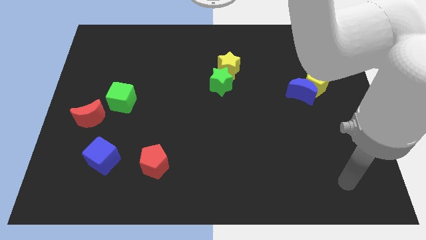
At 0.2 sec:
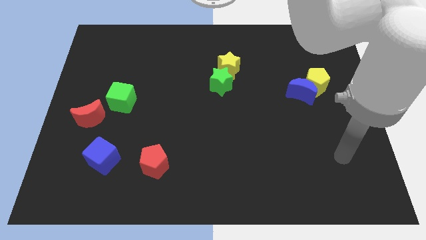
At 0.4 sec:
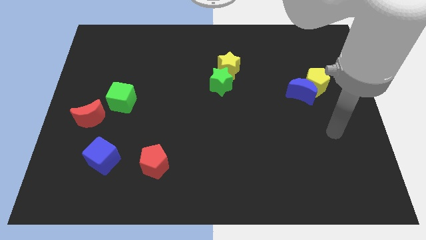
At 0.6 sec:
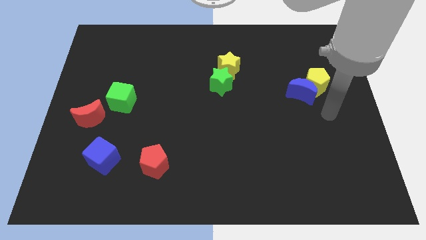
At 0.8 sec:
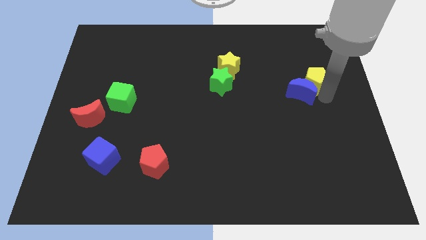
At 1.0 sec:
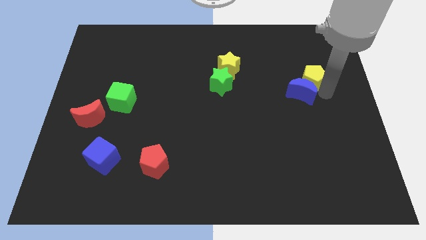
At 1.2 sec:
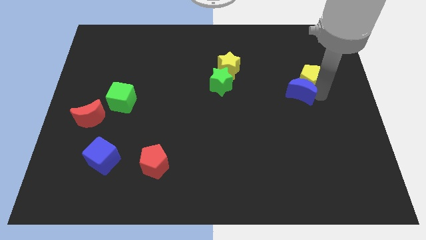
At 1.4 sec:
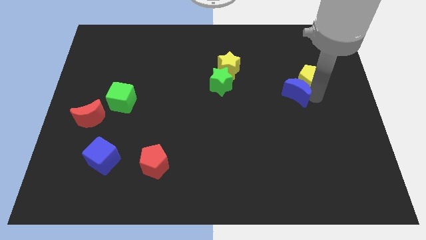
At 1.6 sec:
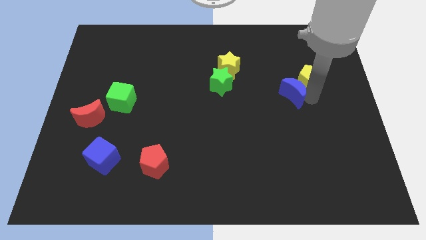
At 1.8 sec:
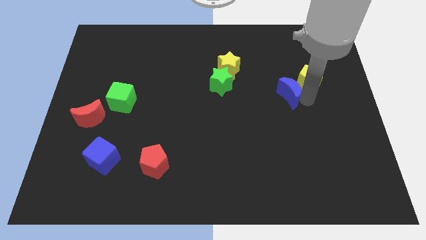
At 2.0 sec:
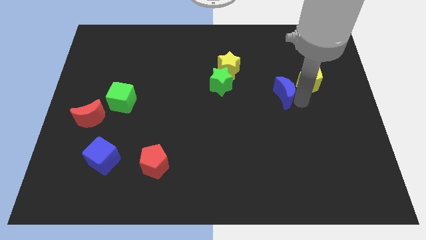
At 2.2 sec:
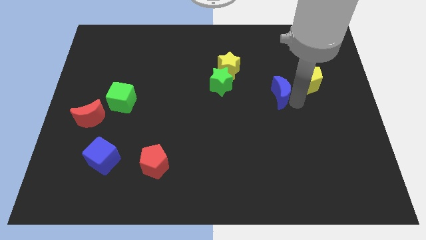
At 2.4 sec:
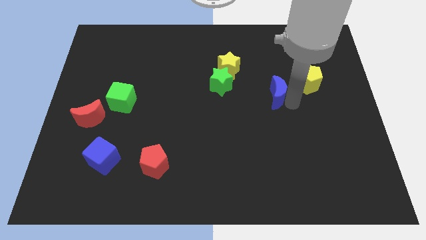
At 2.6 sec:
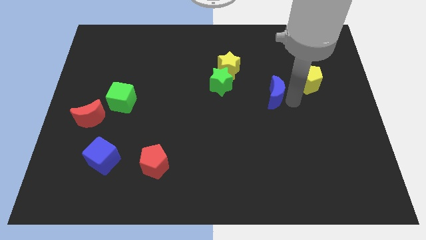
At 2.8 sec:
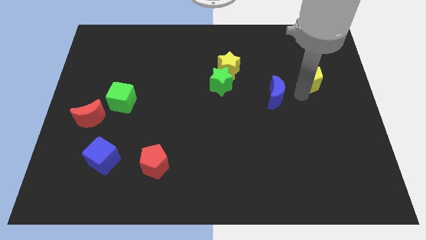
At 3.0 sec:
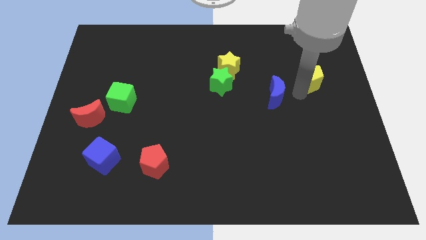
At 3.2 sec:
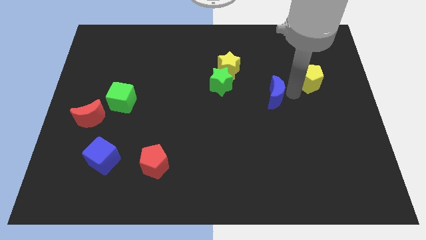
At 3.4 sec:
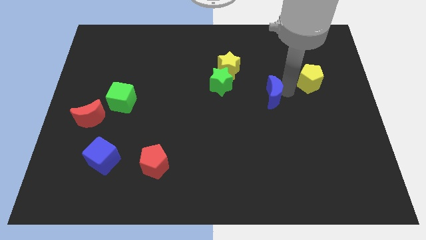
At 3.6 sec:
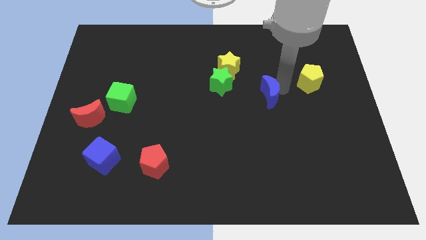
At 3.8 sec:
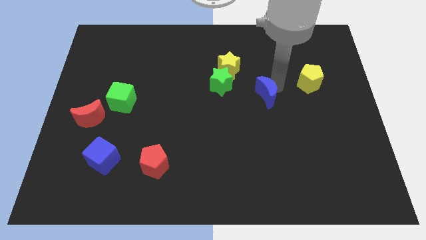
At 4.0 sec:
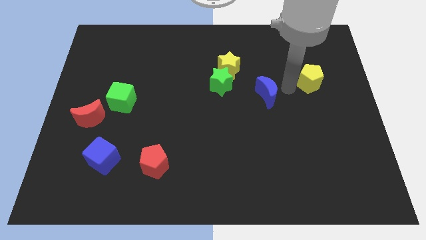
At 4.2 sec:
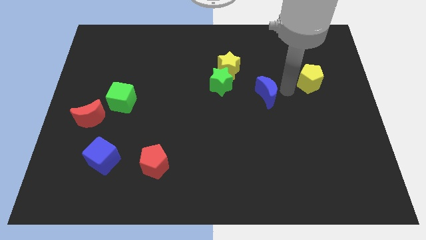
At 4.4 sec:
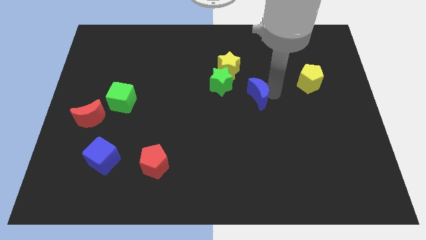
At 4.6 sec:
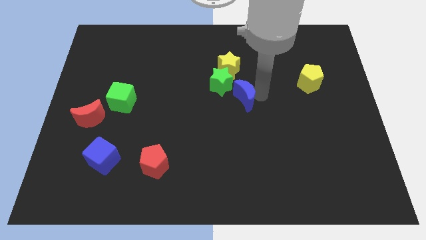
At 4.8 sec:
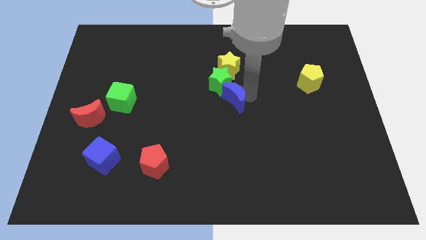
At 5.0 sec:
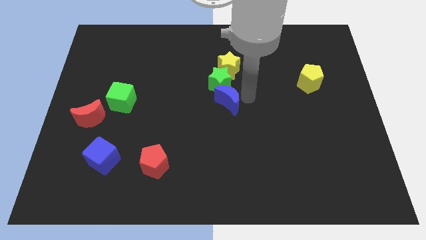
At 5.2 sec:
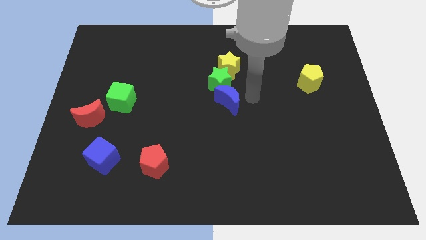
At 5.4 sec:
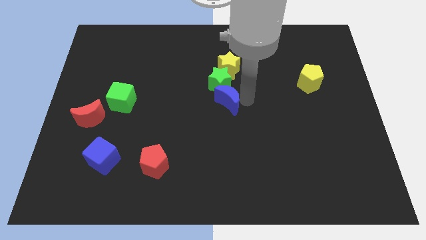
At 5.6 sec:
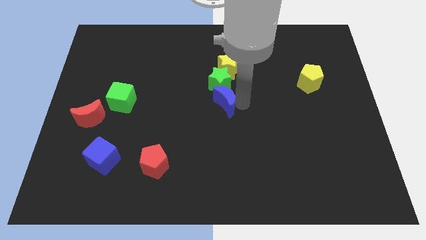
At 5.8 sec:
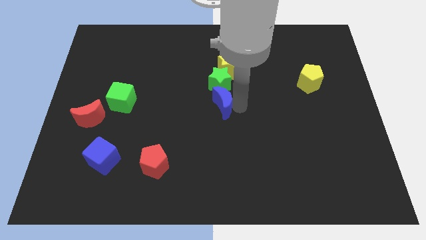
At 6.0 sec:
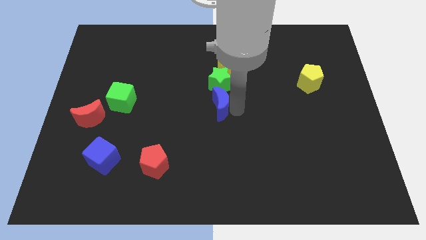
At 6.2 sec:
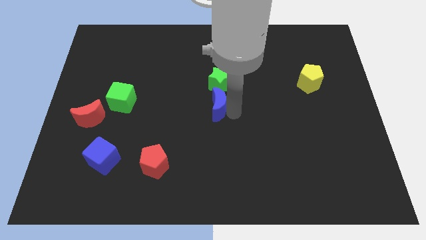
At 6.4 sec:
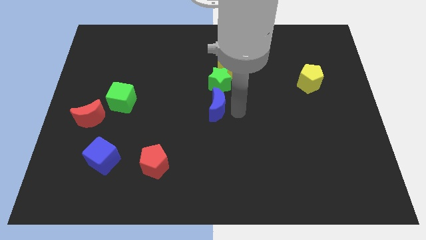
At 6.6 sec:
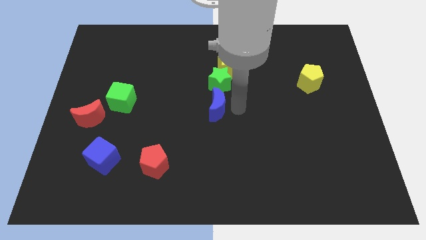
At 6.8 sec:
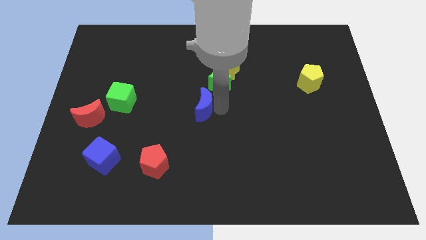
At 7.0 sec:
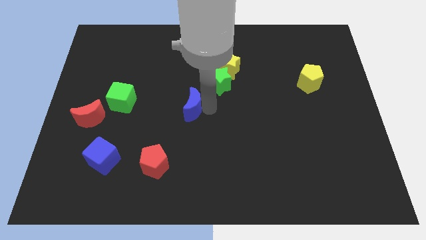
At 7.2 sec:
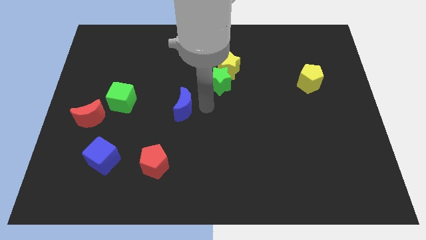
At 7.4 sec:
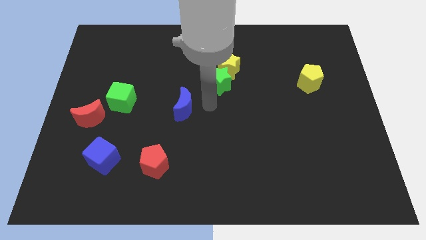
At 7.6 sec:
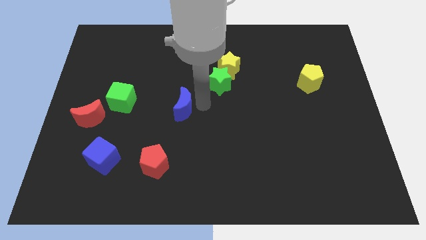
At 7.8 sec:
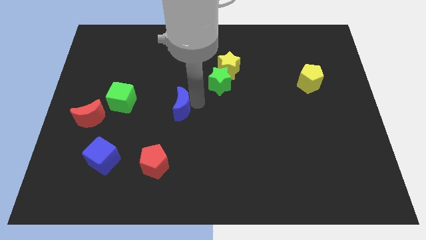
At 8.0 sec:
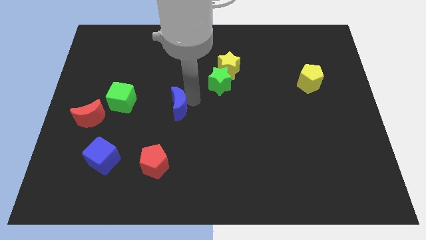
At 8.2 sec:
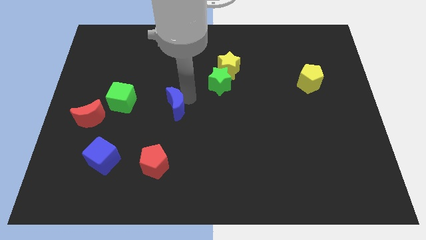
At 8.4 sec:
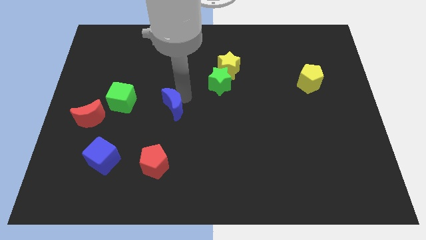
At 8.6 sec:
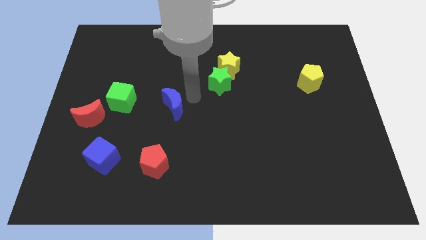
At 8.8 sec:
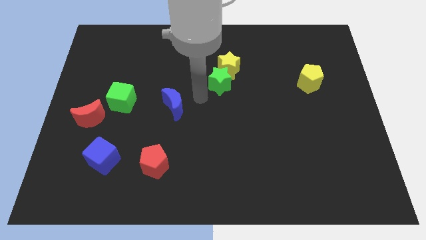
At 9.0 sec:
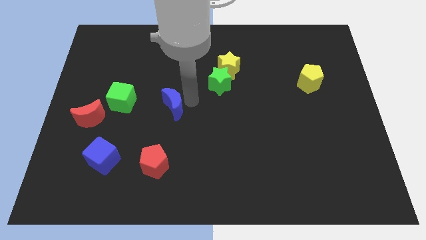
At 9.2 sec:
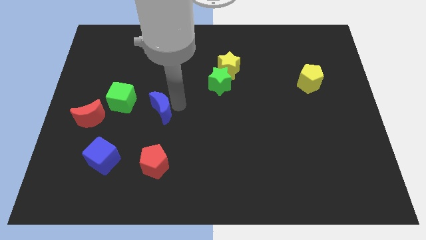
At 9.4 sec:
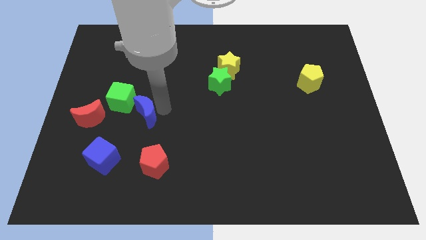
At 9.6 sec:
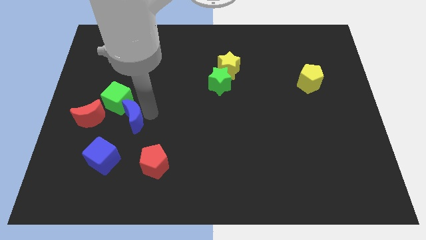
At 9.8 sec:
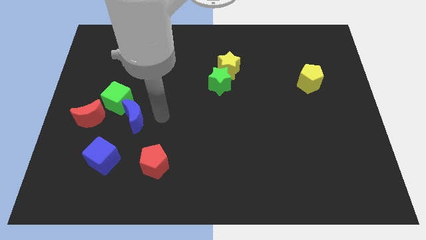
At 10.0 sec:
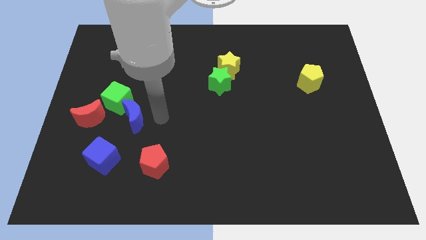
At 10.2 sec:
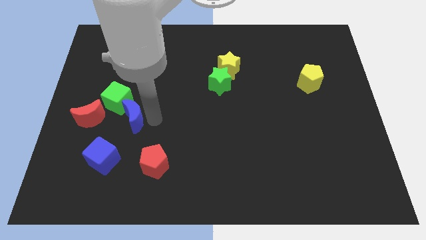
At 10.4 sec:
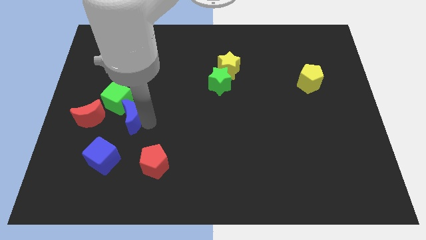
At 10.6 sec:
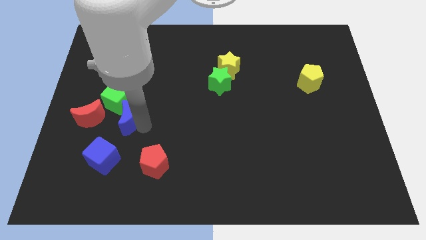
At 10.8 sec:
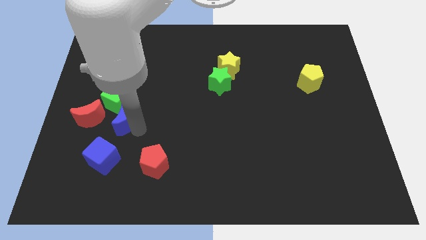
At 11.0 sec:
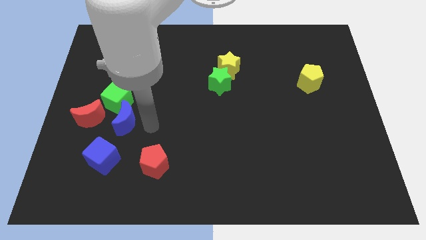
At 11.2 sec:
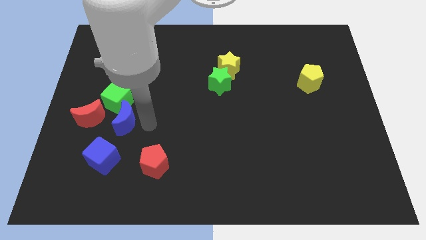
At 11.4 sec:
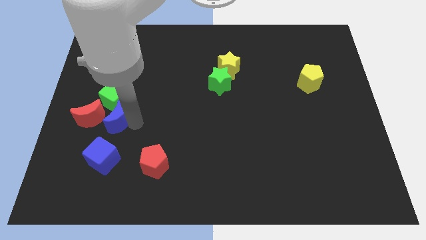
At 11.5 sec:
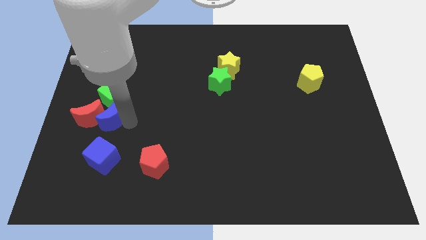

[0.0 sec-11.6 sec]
push the blue moon towards the red moon
